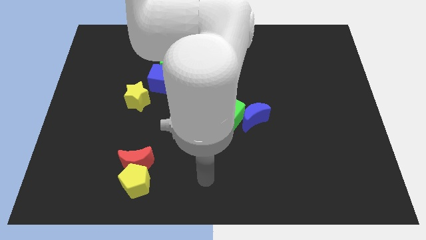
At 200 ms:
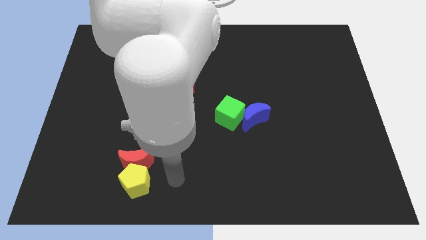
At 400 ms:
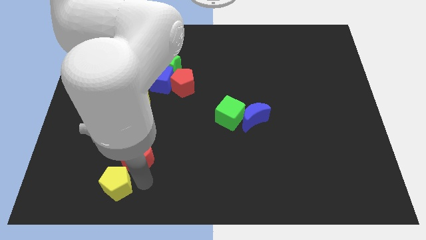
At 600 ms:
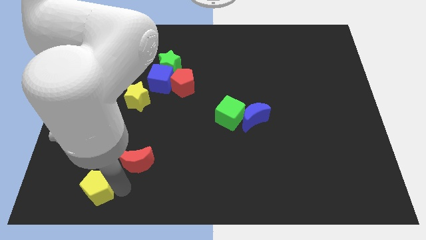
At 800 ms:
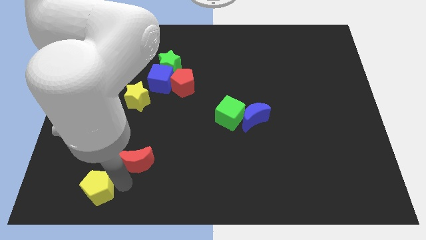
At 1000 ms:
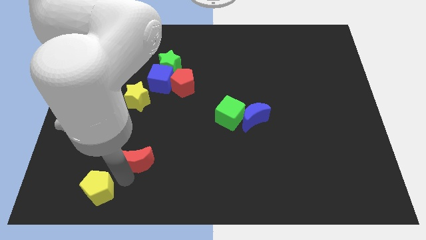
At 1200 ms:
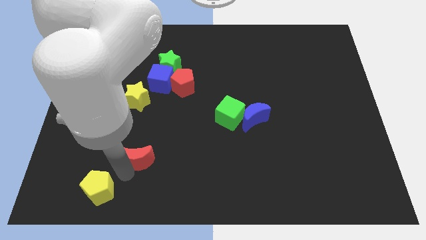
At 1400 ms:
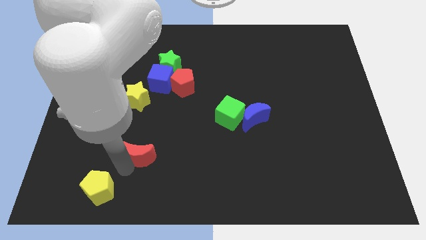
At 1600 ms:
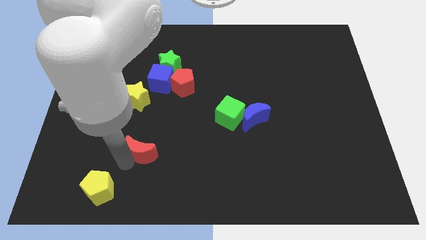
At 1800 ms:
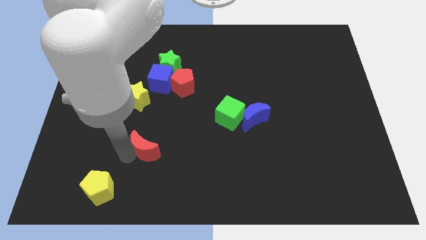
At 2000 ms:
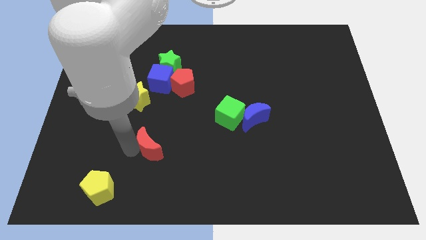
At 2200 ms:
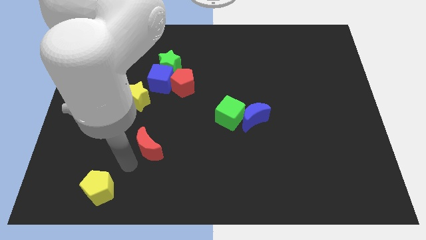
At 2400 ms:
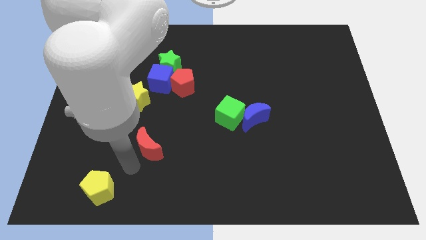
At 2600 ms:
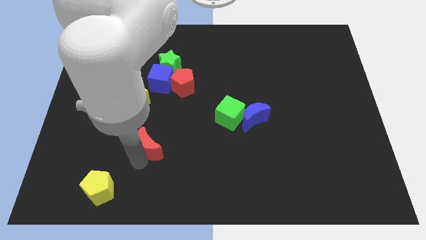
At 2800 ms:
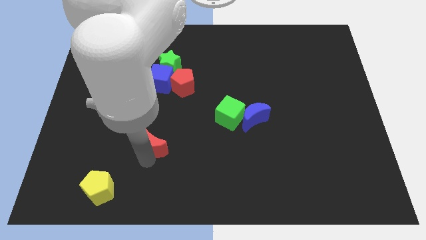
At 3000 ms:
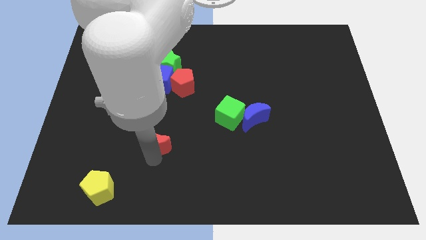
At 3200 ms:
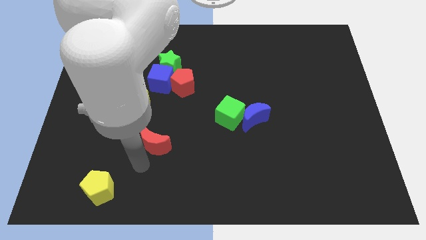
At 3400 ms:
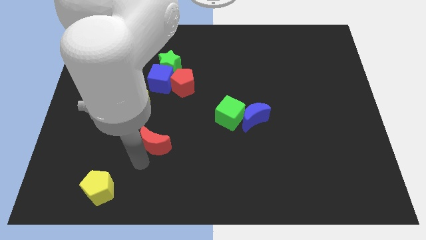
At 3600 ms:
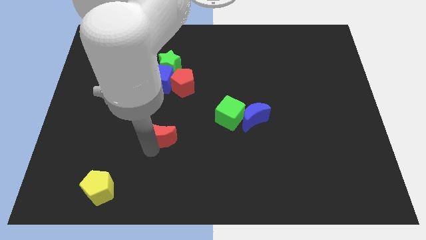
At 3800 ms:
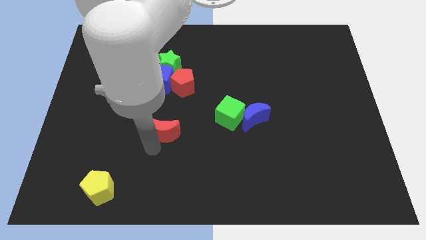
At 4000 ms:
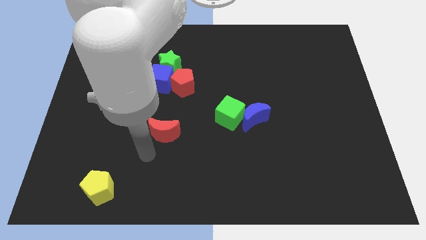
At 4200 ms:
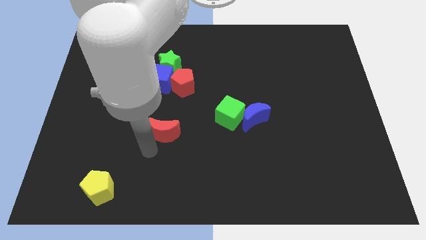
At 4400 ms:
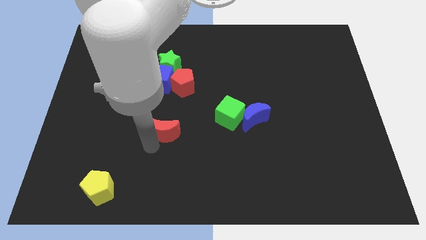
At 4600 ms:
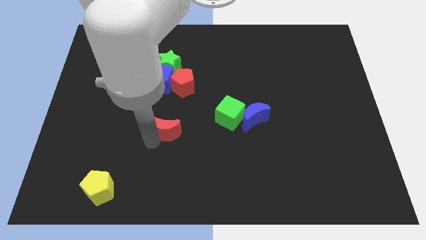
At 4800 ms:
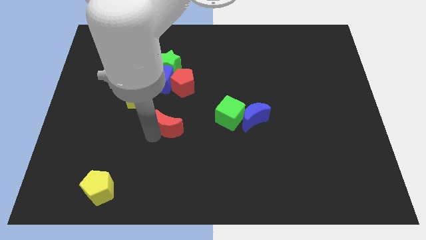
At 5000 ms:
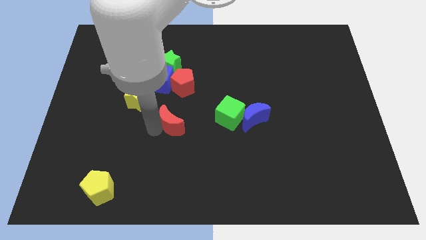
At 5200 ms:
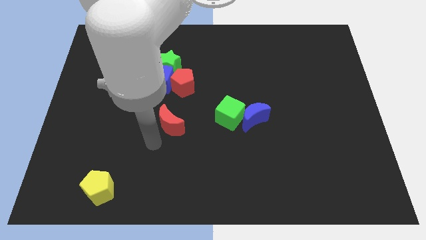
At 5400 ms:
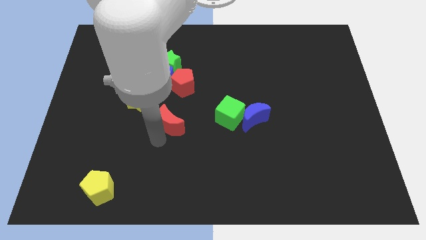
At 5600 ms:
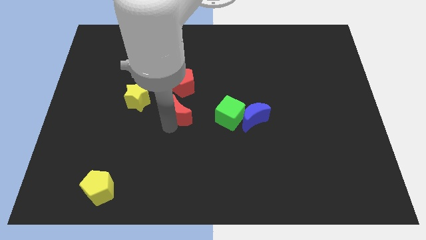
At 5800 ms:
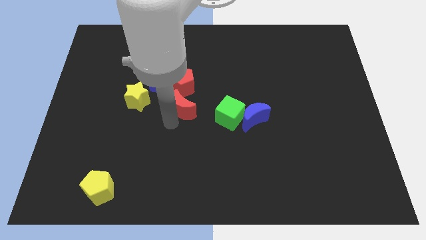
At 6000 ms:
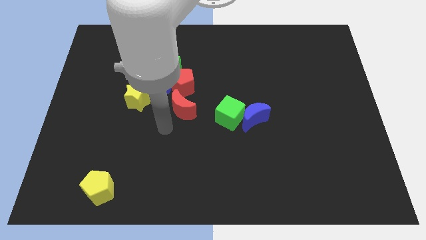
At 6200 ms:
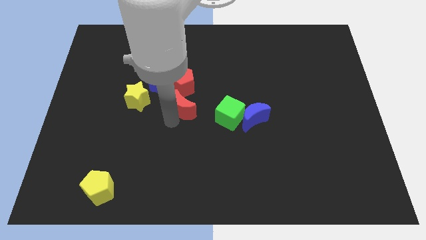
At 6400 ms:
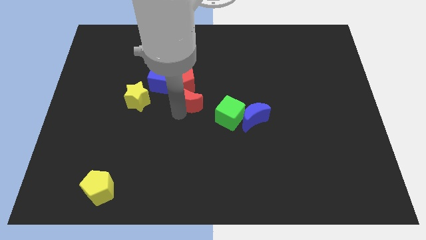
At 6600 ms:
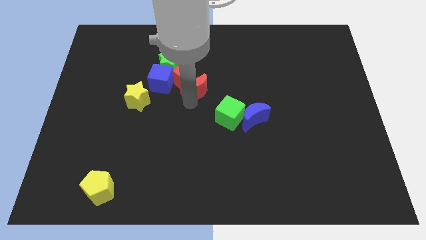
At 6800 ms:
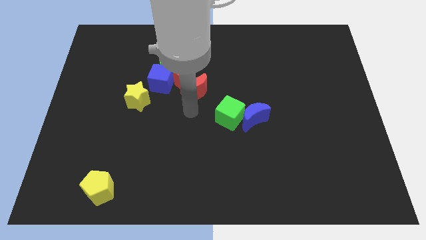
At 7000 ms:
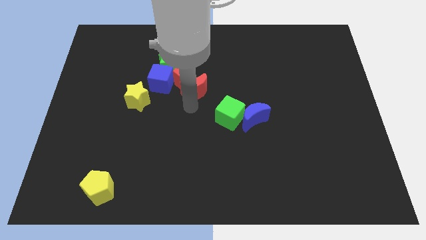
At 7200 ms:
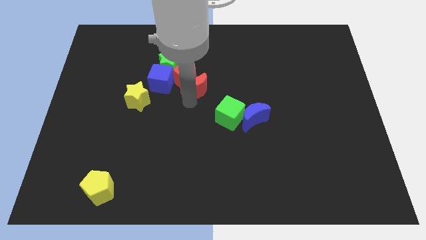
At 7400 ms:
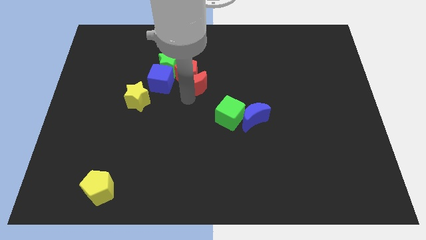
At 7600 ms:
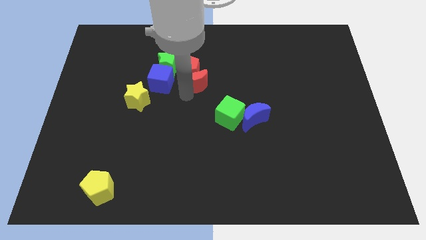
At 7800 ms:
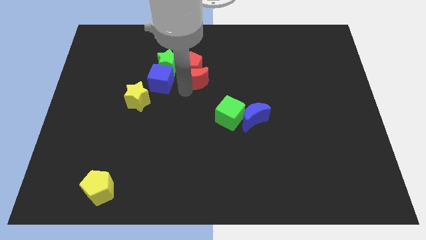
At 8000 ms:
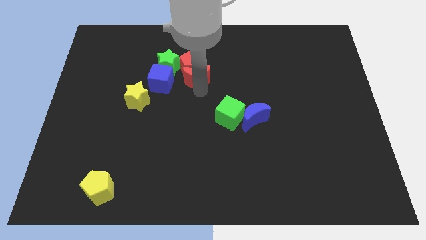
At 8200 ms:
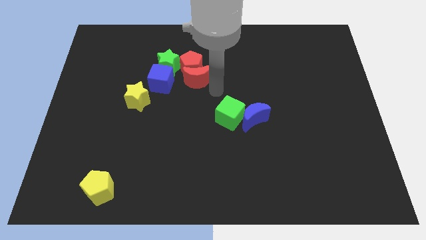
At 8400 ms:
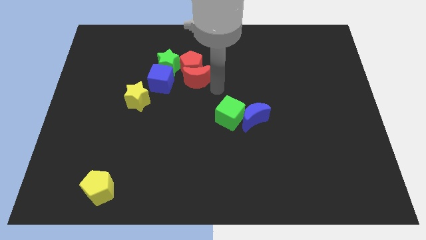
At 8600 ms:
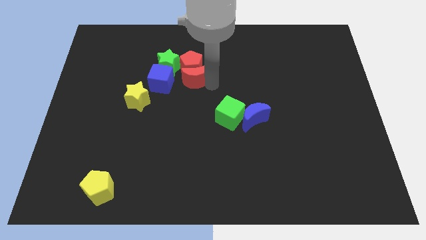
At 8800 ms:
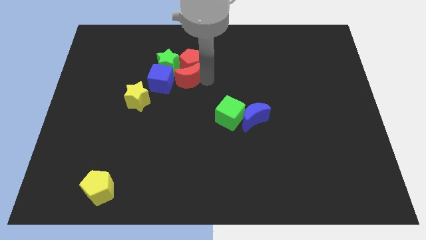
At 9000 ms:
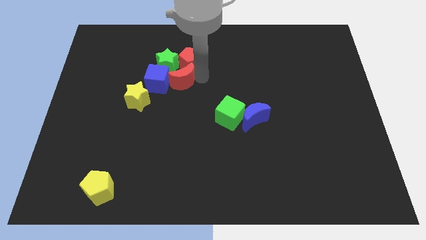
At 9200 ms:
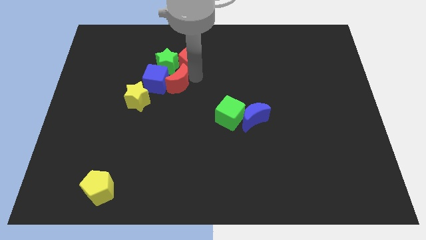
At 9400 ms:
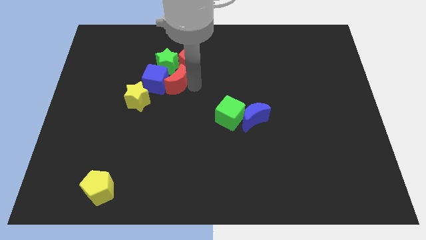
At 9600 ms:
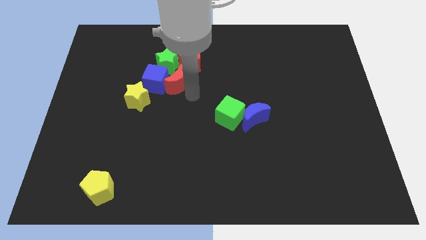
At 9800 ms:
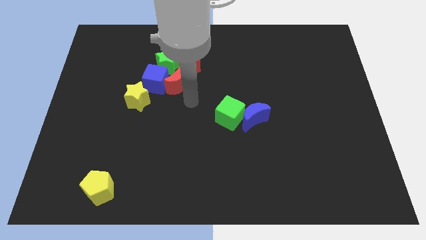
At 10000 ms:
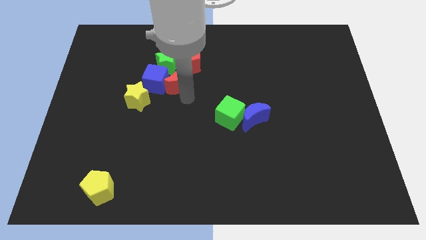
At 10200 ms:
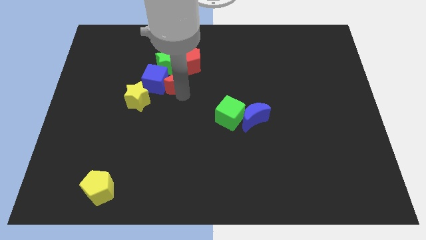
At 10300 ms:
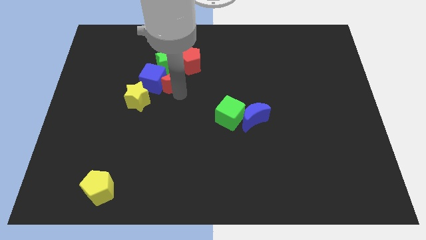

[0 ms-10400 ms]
move the red moon to the green star

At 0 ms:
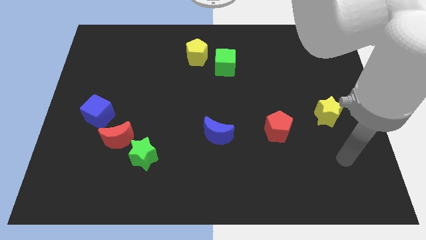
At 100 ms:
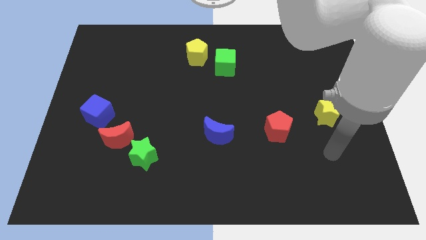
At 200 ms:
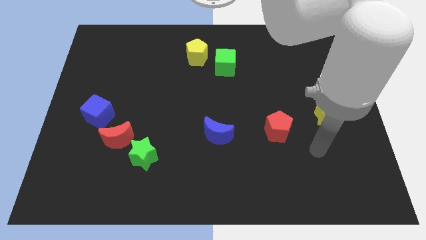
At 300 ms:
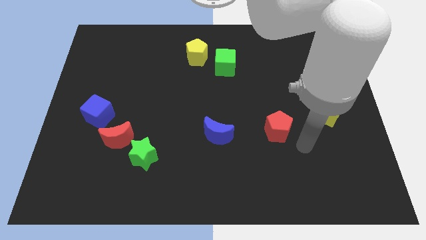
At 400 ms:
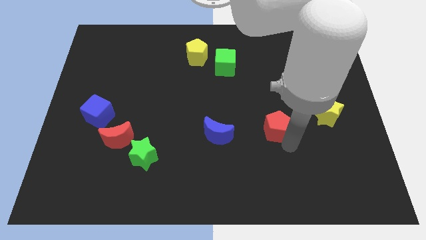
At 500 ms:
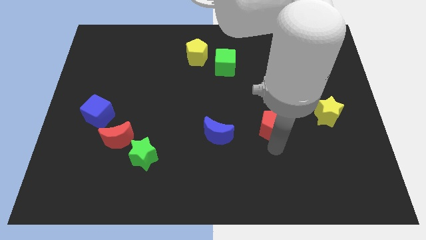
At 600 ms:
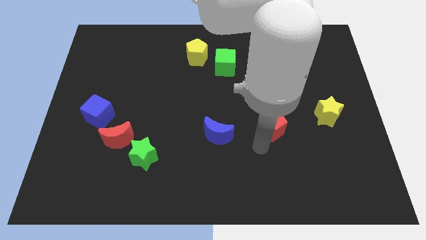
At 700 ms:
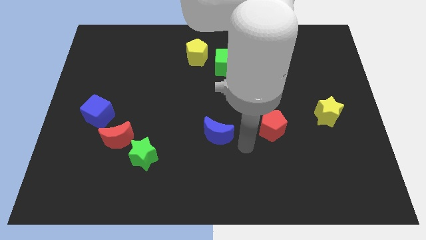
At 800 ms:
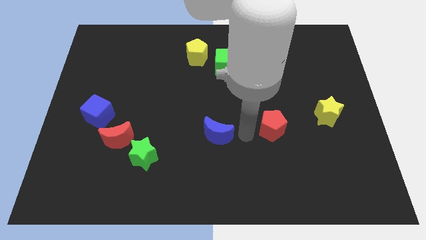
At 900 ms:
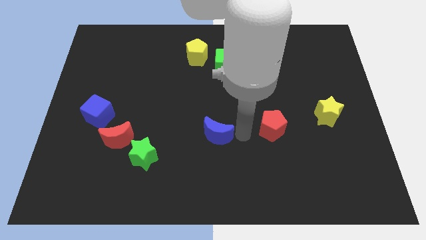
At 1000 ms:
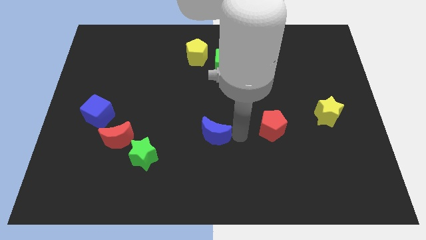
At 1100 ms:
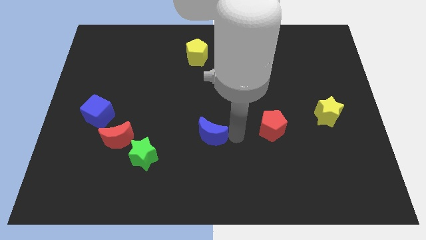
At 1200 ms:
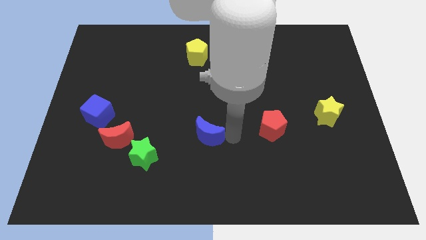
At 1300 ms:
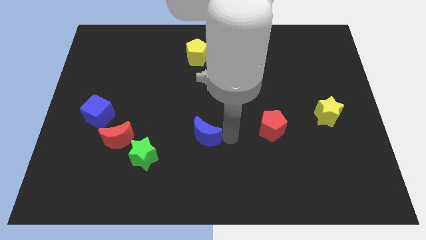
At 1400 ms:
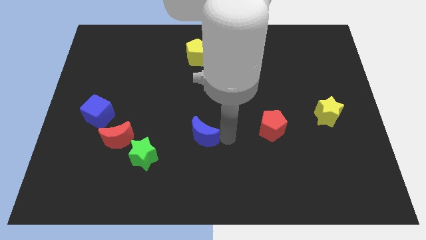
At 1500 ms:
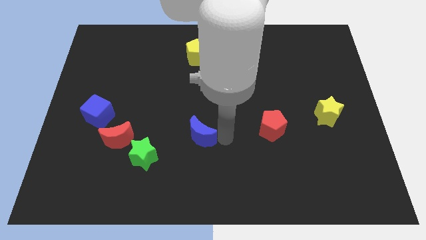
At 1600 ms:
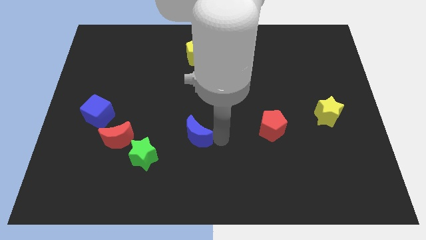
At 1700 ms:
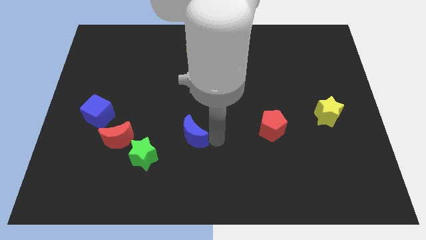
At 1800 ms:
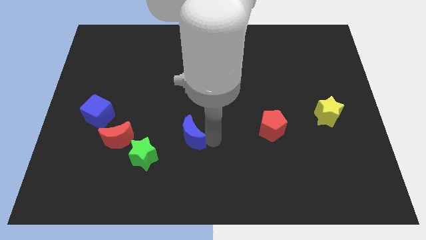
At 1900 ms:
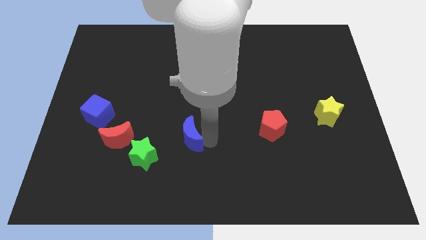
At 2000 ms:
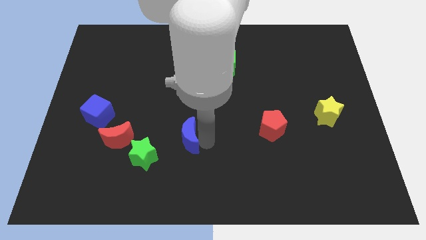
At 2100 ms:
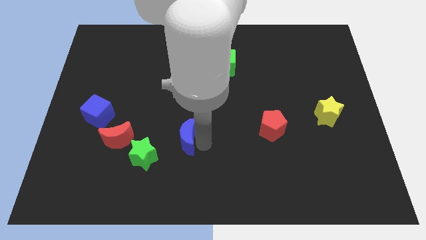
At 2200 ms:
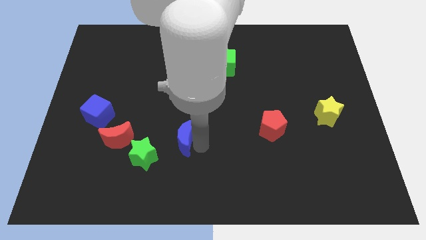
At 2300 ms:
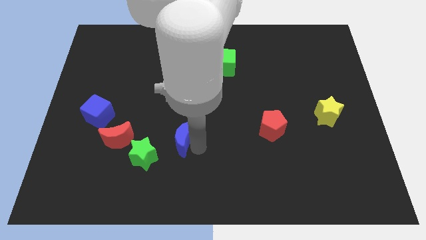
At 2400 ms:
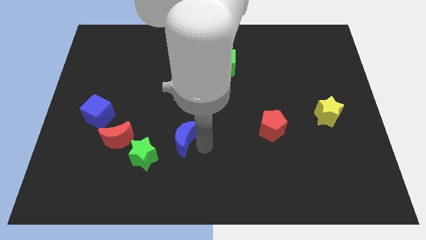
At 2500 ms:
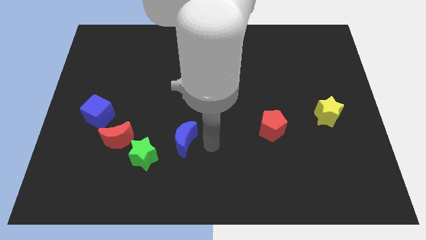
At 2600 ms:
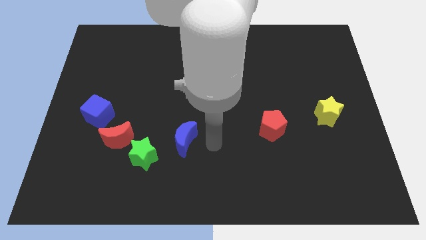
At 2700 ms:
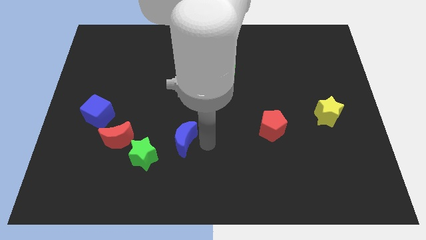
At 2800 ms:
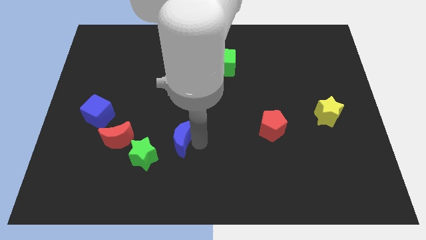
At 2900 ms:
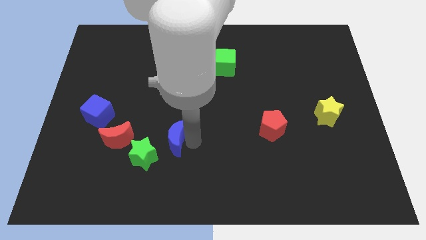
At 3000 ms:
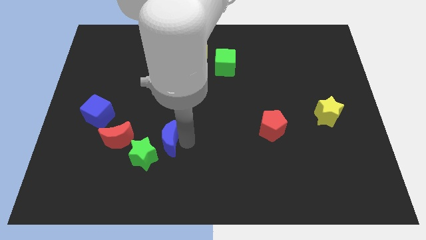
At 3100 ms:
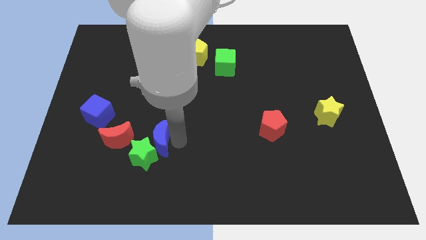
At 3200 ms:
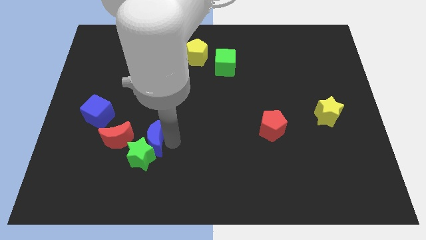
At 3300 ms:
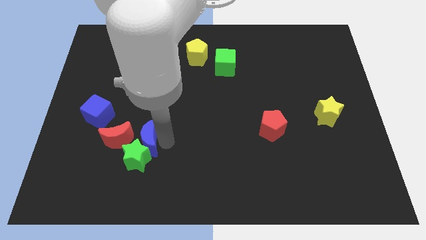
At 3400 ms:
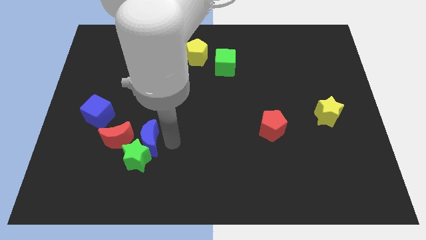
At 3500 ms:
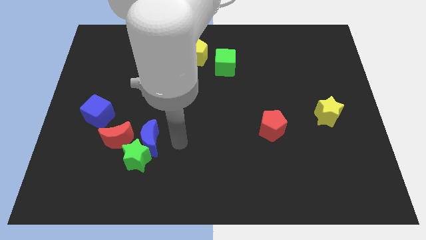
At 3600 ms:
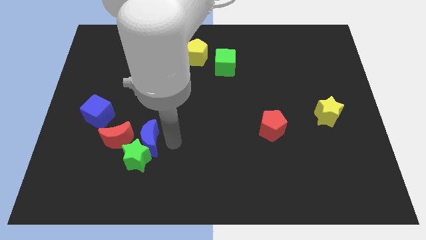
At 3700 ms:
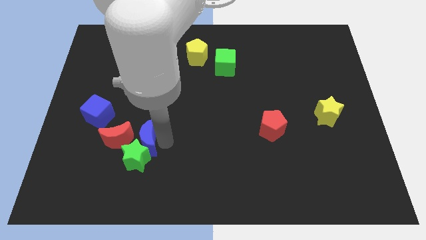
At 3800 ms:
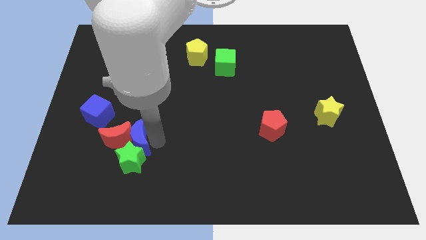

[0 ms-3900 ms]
put the blue moon towards the red moon
